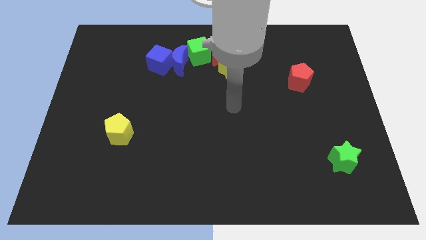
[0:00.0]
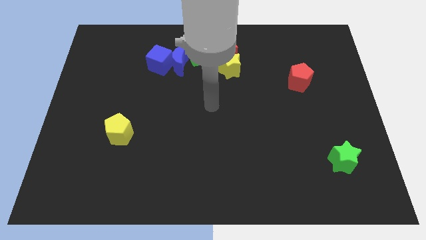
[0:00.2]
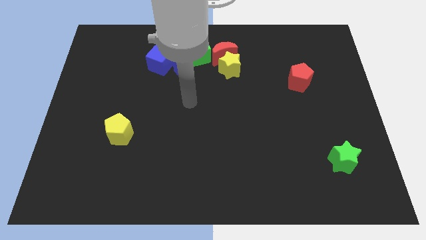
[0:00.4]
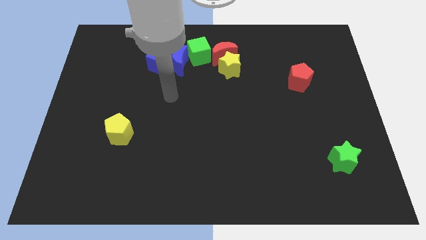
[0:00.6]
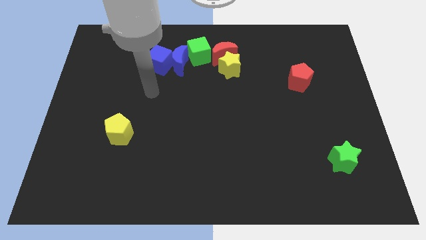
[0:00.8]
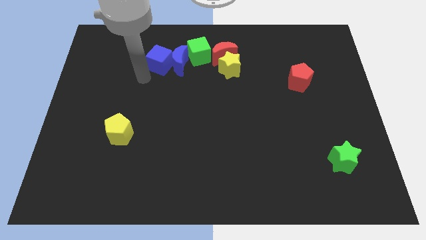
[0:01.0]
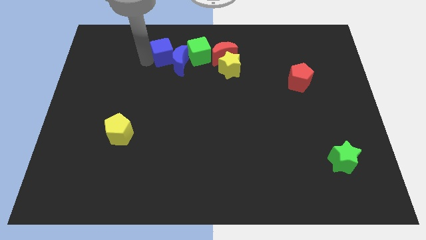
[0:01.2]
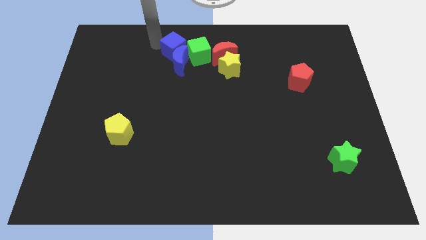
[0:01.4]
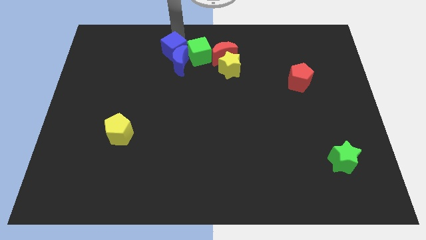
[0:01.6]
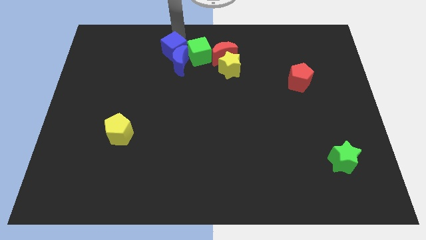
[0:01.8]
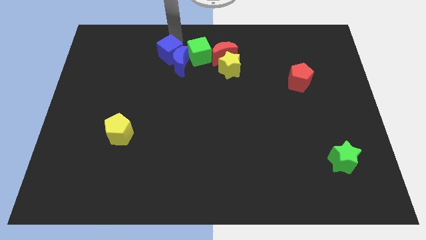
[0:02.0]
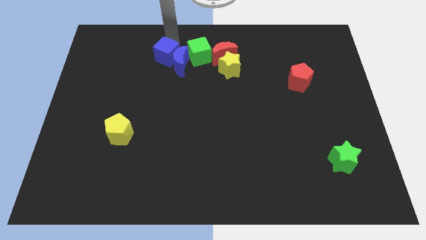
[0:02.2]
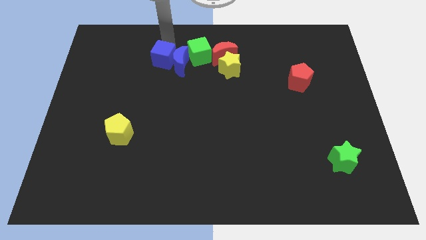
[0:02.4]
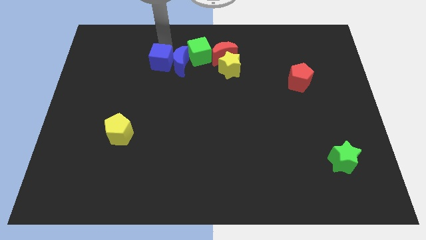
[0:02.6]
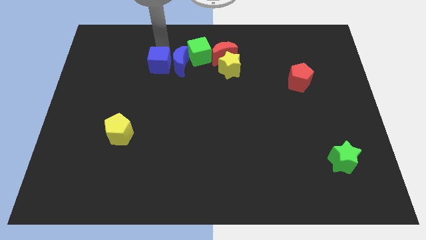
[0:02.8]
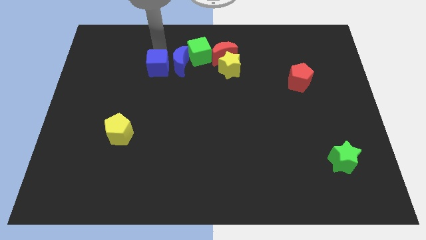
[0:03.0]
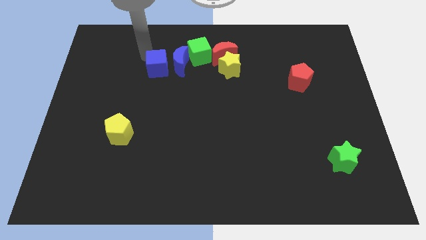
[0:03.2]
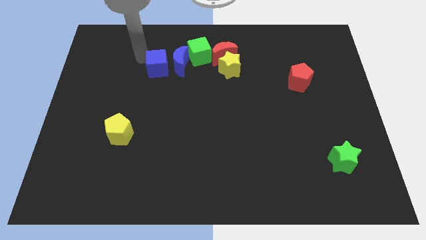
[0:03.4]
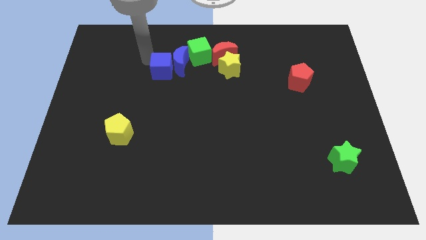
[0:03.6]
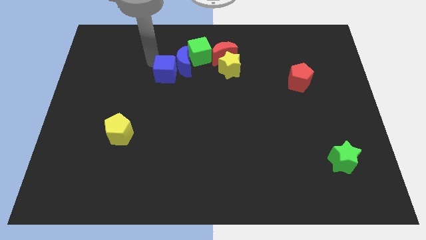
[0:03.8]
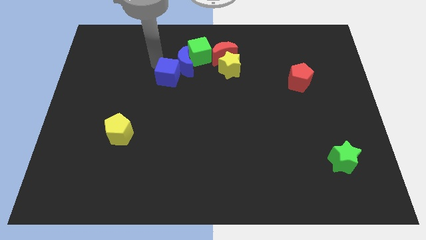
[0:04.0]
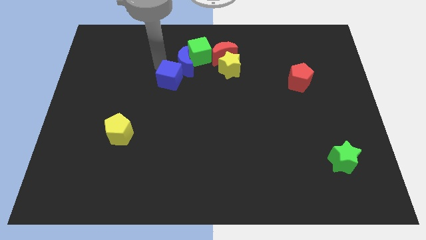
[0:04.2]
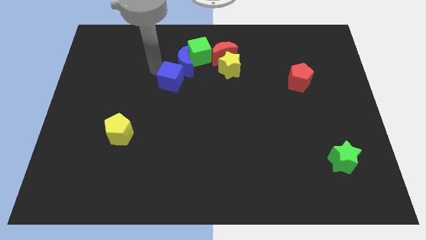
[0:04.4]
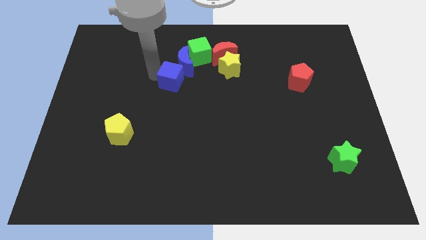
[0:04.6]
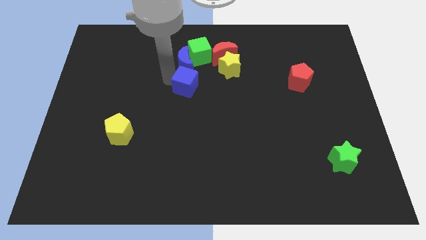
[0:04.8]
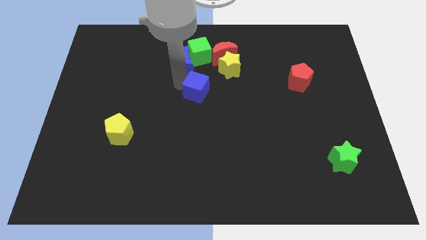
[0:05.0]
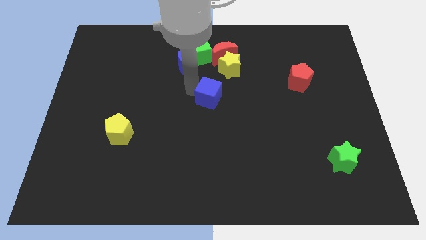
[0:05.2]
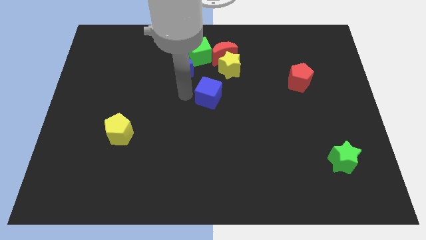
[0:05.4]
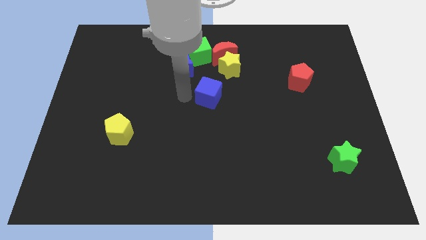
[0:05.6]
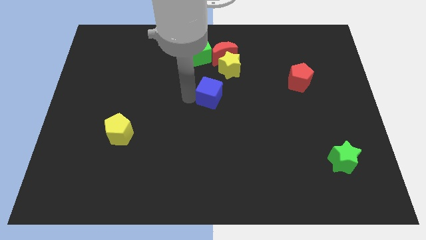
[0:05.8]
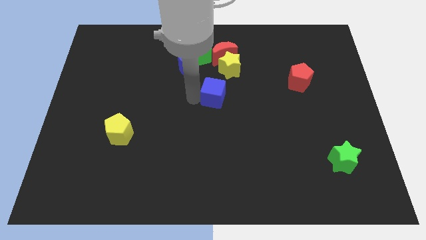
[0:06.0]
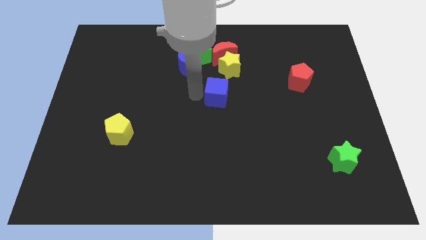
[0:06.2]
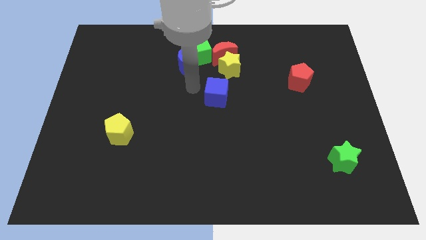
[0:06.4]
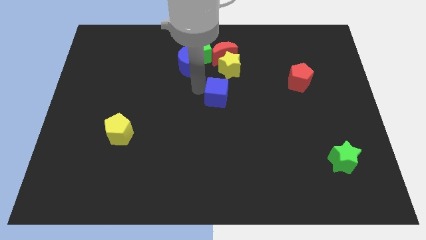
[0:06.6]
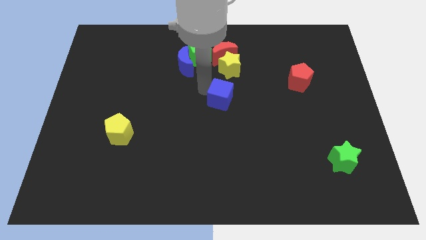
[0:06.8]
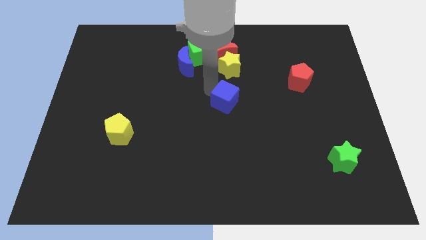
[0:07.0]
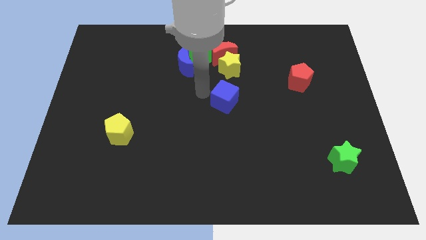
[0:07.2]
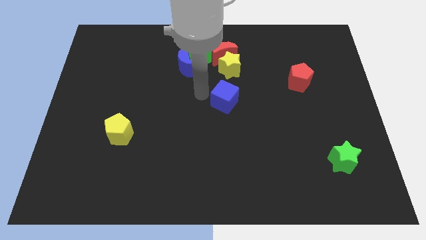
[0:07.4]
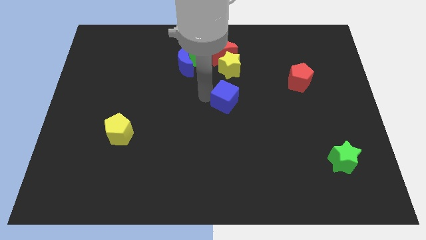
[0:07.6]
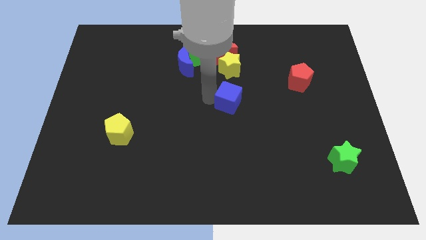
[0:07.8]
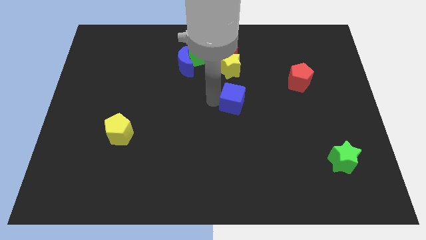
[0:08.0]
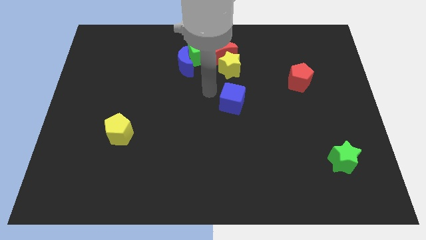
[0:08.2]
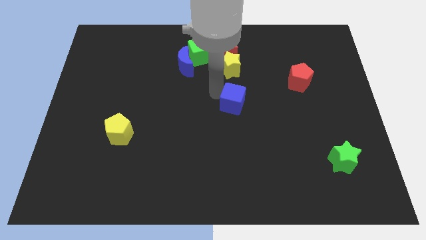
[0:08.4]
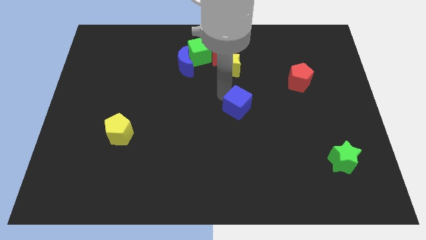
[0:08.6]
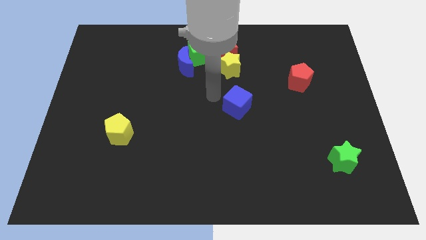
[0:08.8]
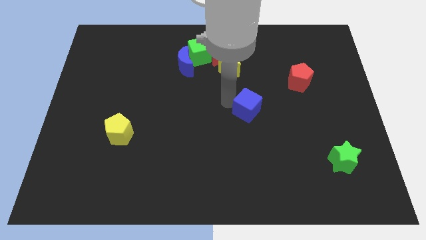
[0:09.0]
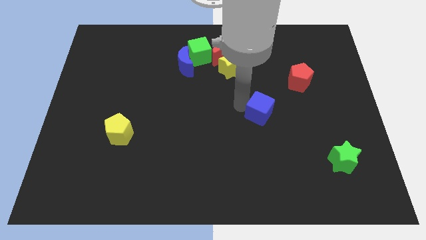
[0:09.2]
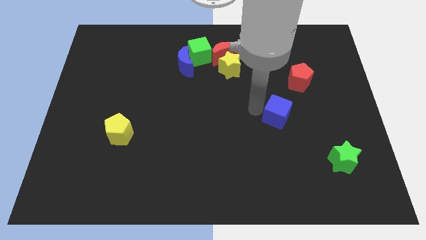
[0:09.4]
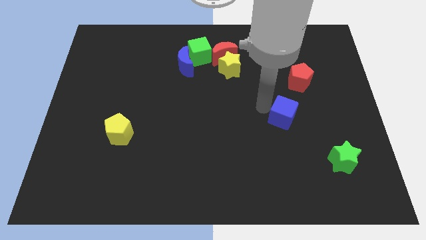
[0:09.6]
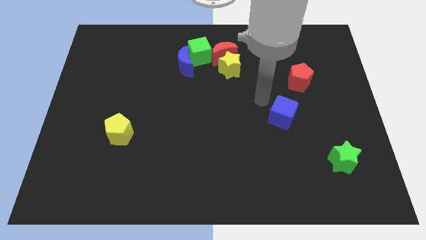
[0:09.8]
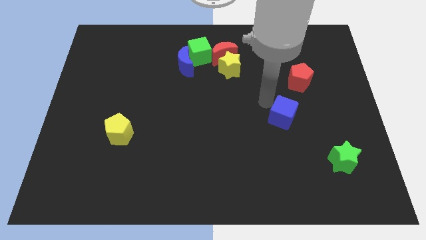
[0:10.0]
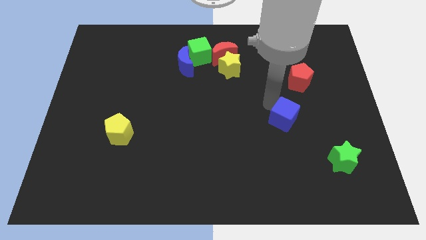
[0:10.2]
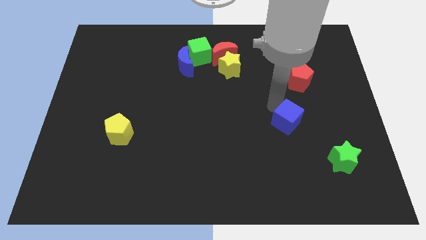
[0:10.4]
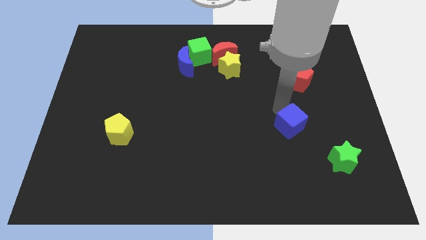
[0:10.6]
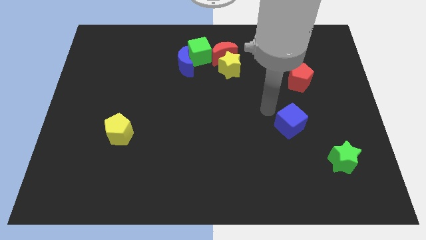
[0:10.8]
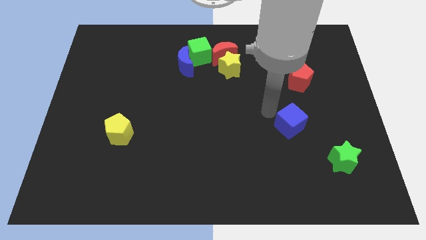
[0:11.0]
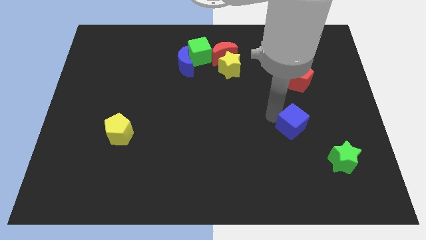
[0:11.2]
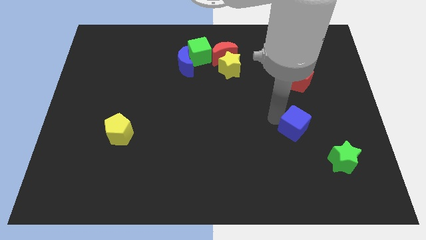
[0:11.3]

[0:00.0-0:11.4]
slide the blue cube to the top left of the green star

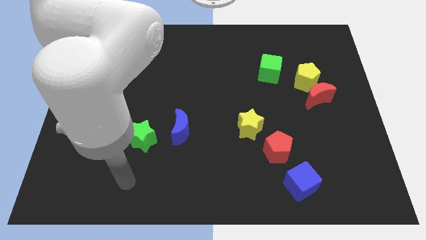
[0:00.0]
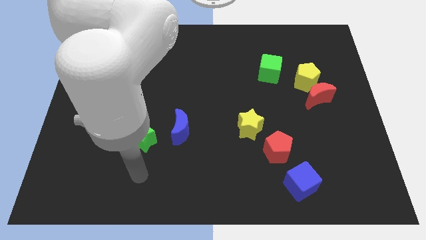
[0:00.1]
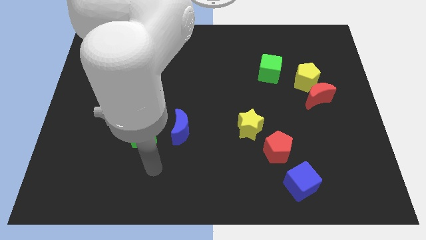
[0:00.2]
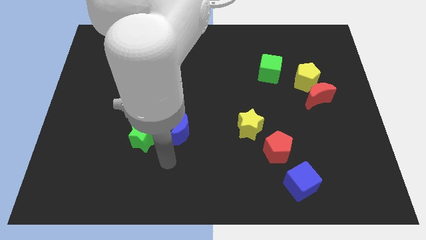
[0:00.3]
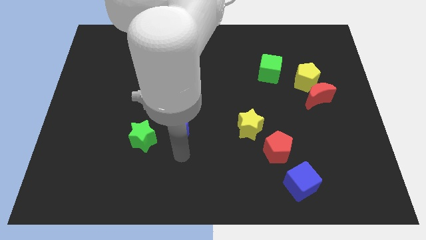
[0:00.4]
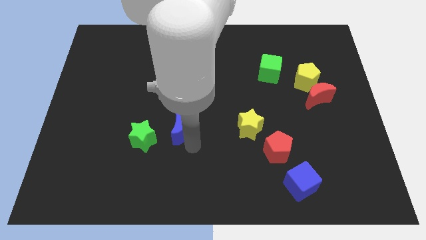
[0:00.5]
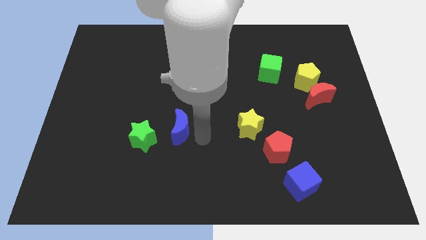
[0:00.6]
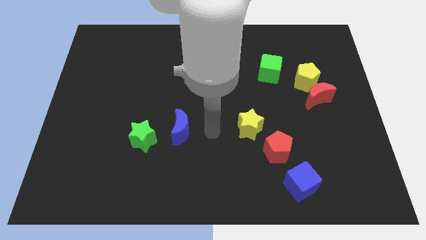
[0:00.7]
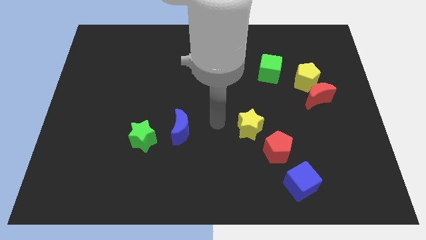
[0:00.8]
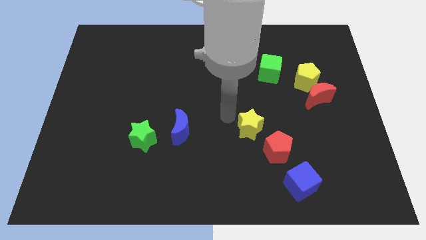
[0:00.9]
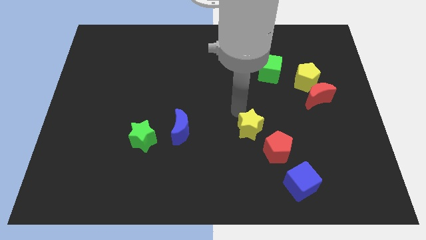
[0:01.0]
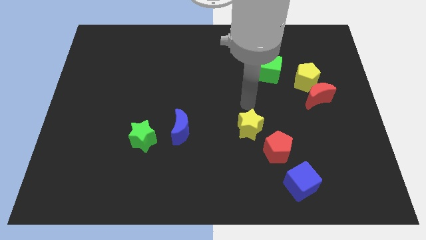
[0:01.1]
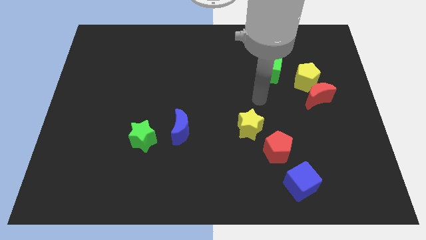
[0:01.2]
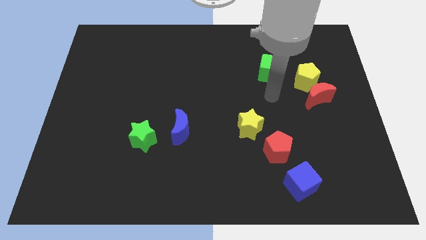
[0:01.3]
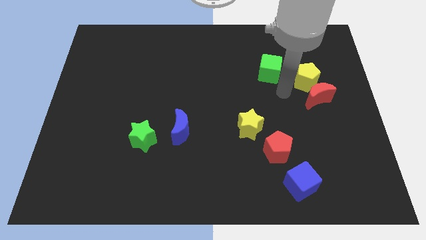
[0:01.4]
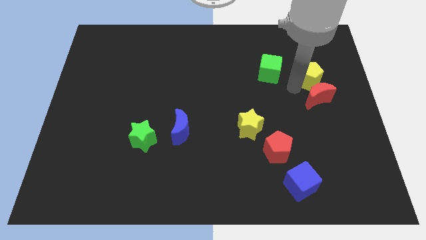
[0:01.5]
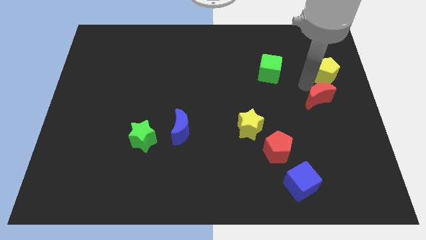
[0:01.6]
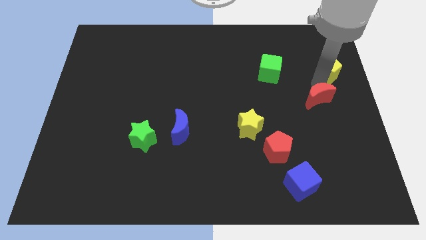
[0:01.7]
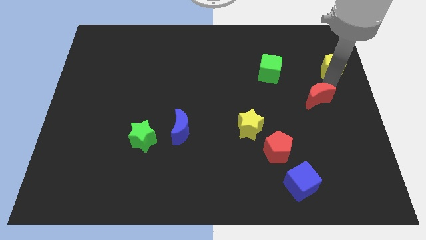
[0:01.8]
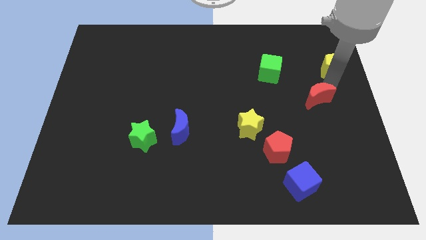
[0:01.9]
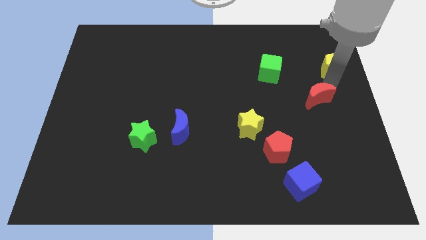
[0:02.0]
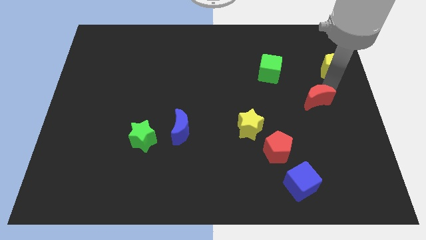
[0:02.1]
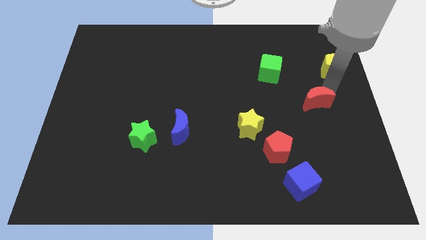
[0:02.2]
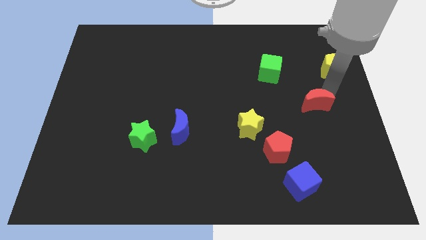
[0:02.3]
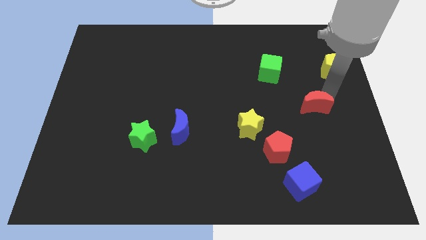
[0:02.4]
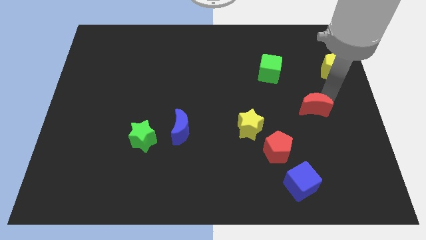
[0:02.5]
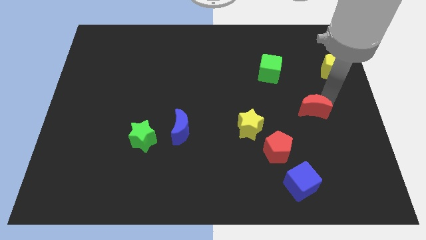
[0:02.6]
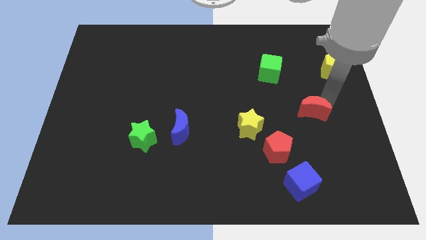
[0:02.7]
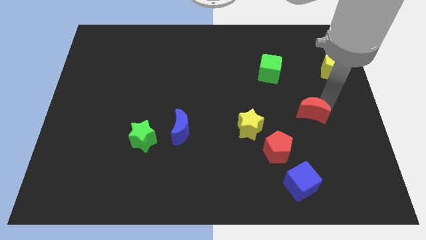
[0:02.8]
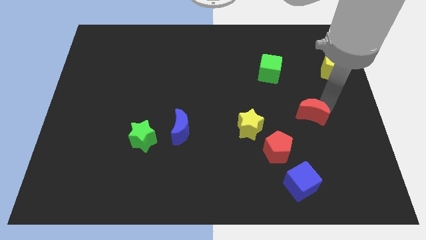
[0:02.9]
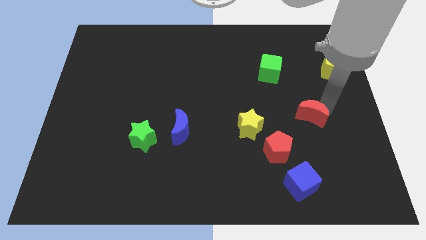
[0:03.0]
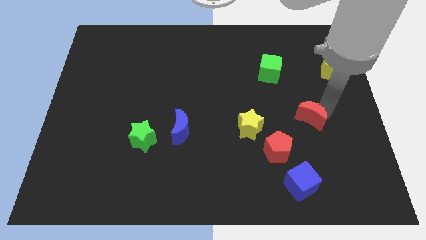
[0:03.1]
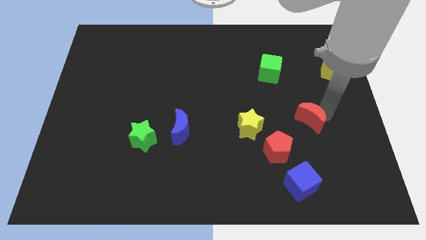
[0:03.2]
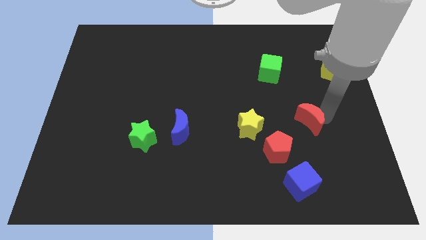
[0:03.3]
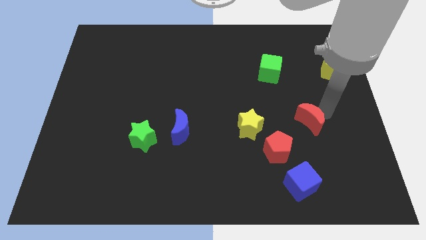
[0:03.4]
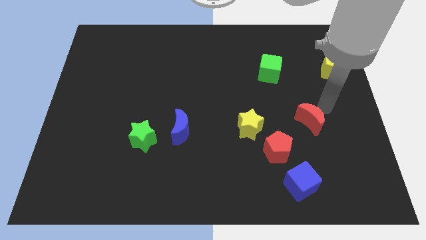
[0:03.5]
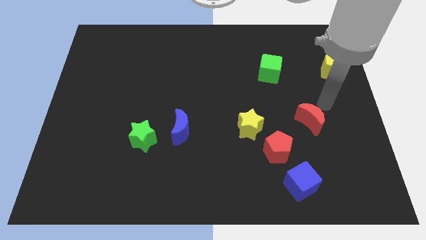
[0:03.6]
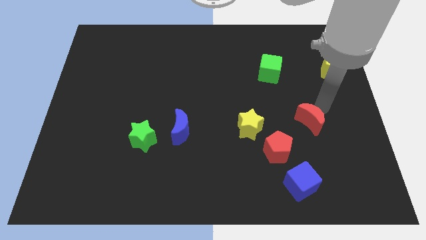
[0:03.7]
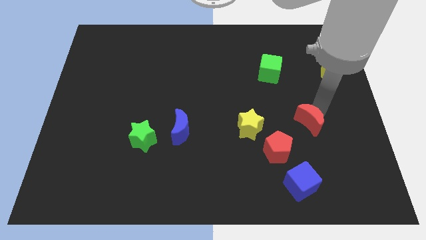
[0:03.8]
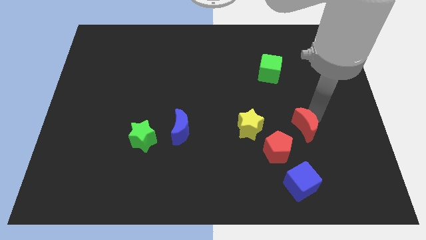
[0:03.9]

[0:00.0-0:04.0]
put the red moon above the blue cube
